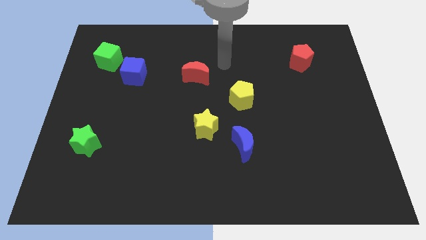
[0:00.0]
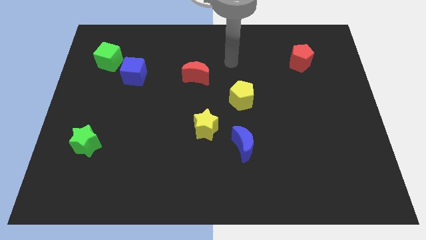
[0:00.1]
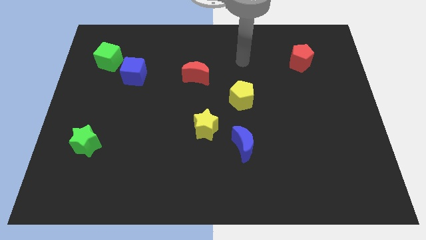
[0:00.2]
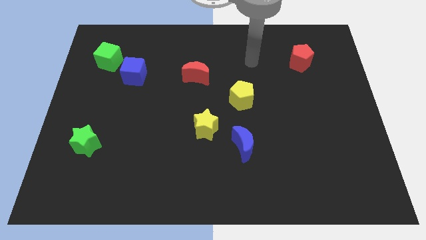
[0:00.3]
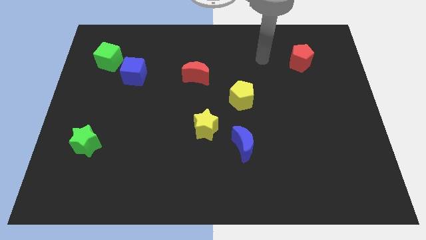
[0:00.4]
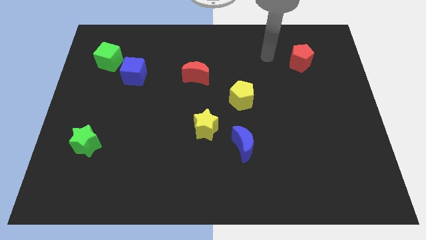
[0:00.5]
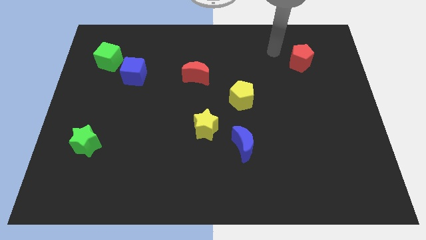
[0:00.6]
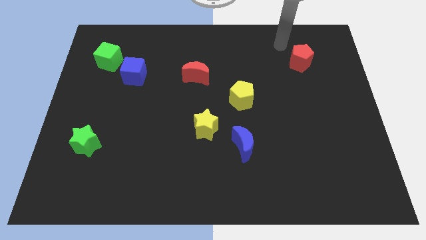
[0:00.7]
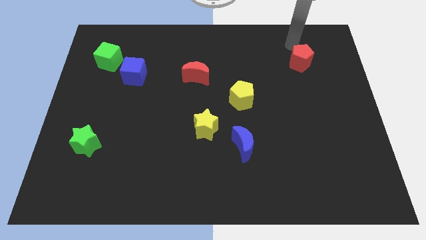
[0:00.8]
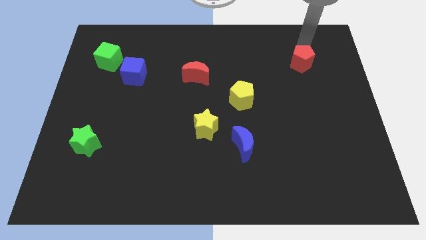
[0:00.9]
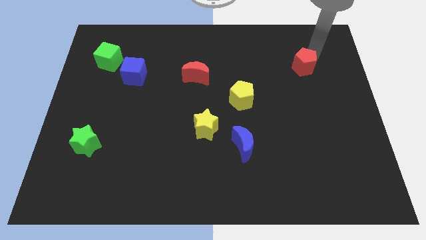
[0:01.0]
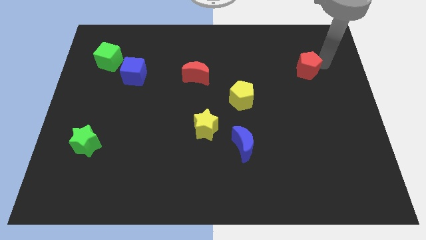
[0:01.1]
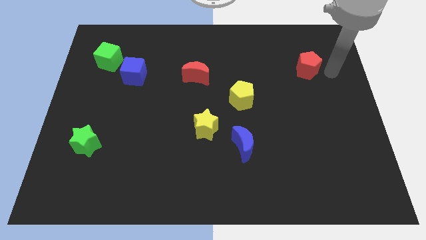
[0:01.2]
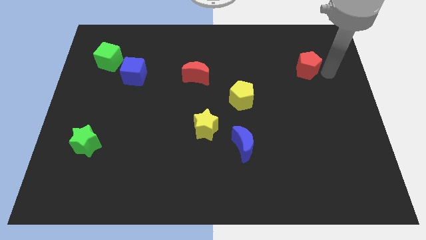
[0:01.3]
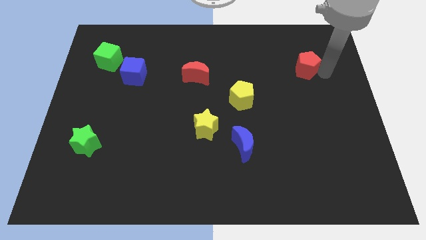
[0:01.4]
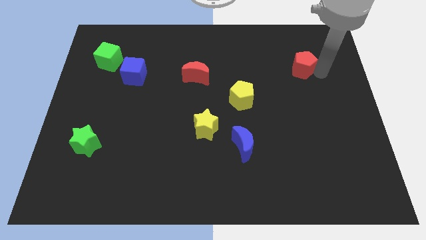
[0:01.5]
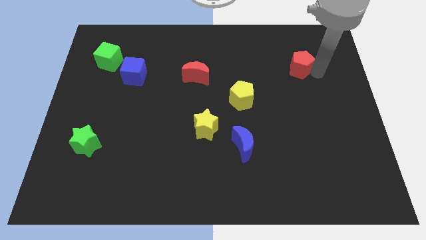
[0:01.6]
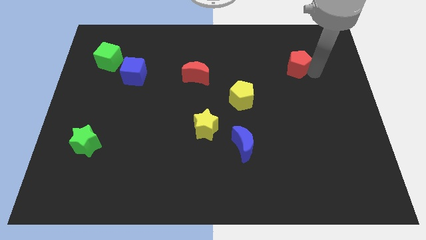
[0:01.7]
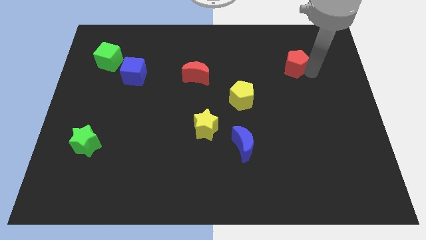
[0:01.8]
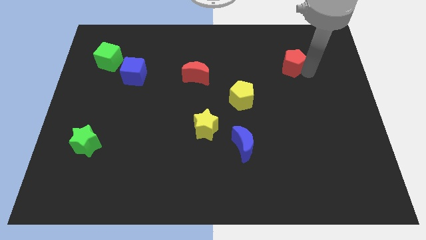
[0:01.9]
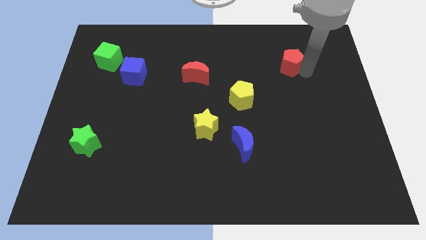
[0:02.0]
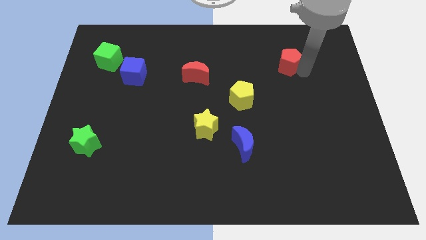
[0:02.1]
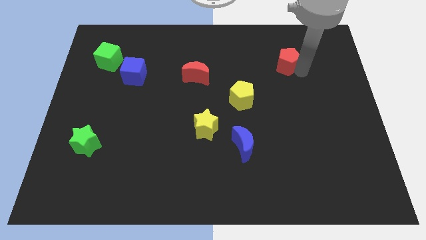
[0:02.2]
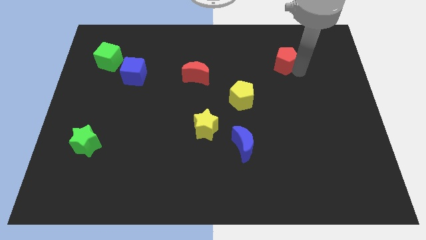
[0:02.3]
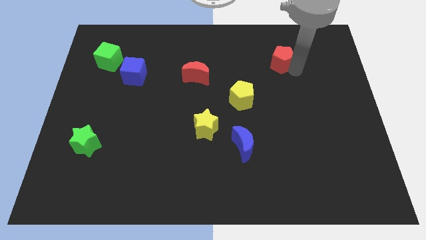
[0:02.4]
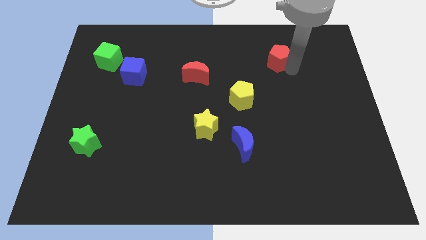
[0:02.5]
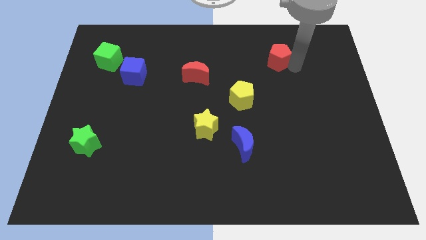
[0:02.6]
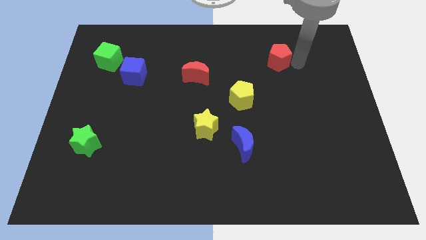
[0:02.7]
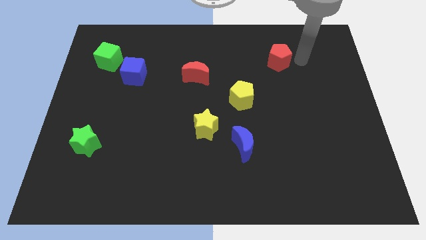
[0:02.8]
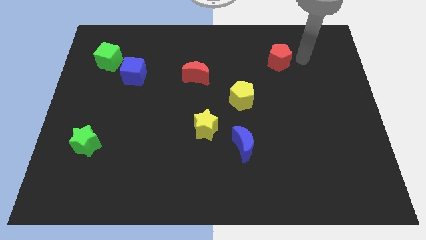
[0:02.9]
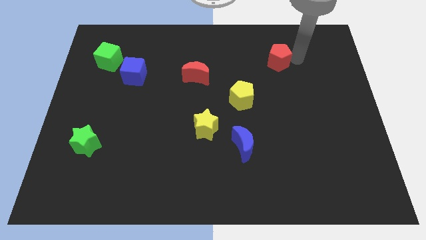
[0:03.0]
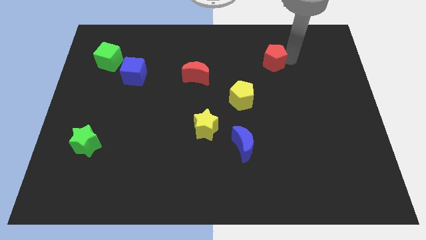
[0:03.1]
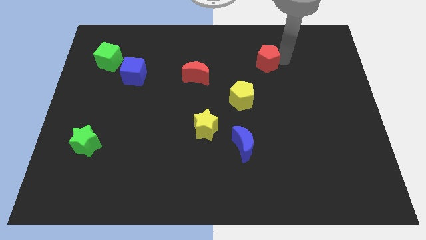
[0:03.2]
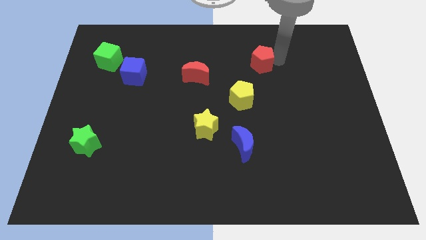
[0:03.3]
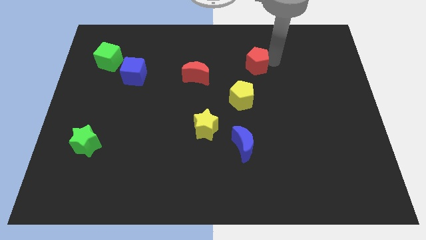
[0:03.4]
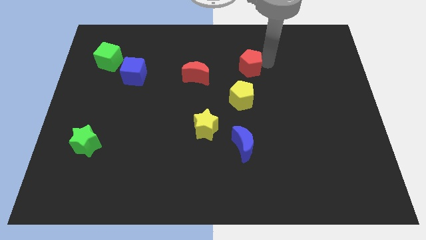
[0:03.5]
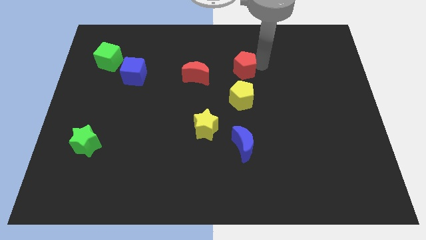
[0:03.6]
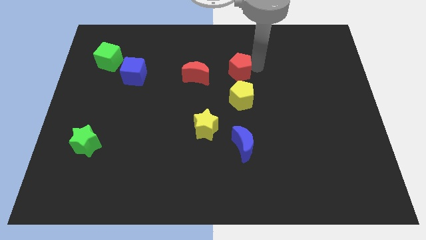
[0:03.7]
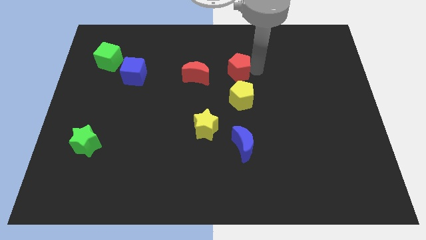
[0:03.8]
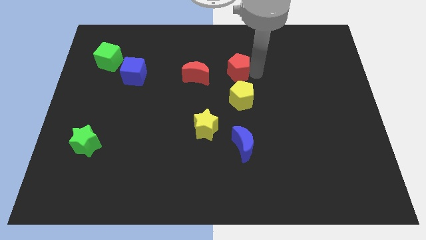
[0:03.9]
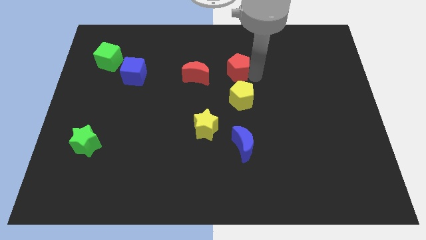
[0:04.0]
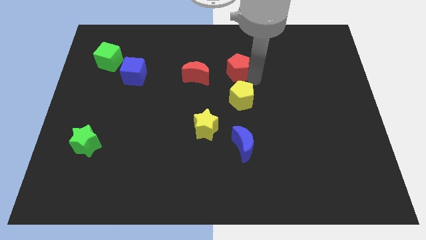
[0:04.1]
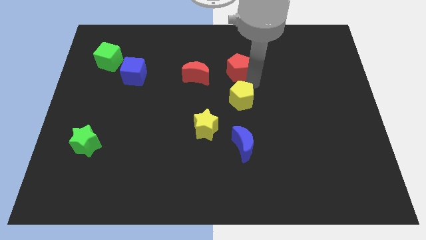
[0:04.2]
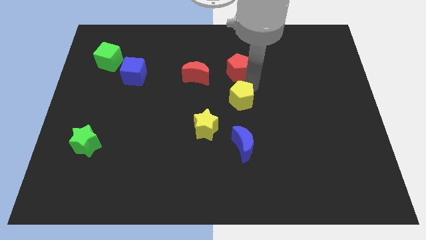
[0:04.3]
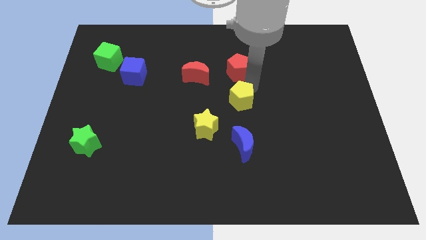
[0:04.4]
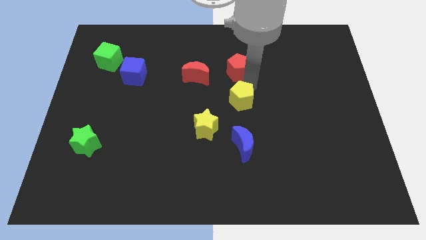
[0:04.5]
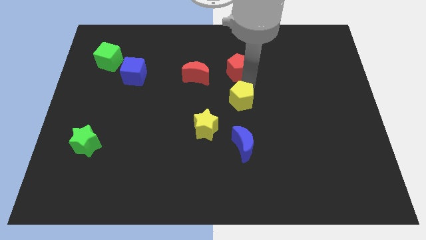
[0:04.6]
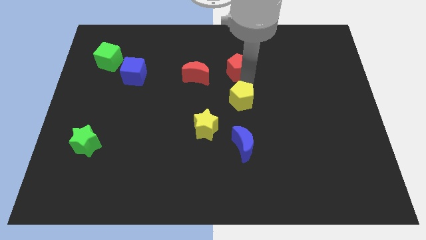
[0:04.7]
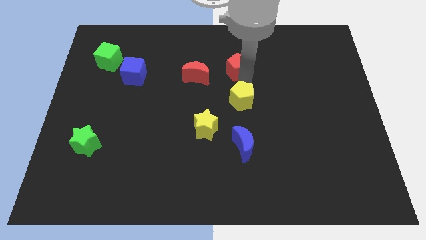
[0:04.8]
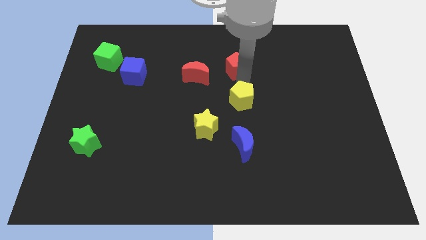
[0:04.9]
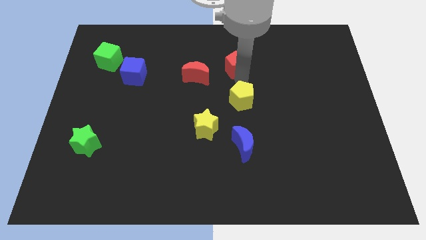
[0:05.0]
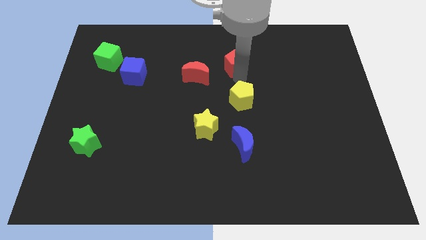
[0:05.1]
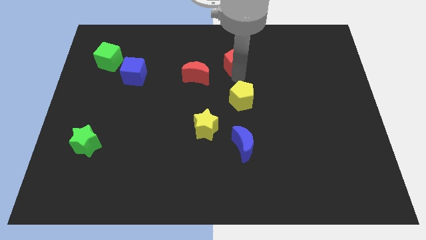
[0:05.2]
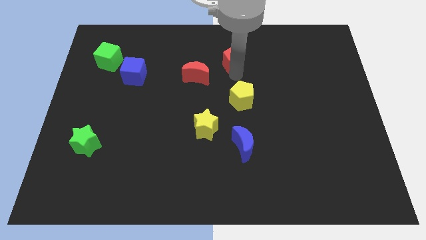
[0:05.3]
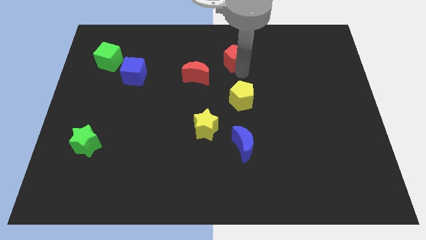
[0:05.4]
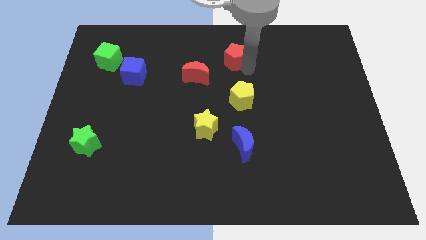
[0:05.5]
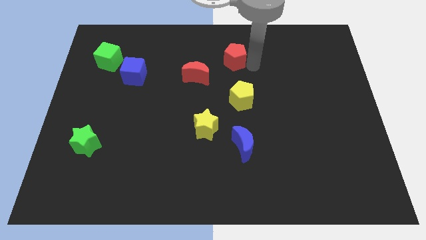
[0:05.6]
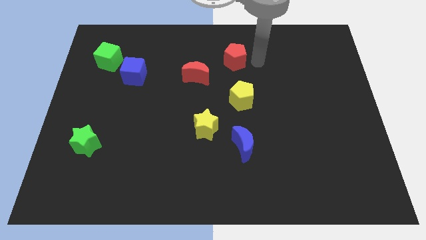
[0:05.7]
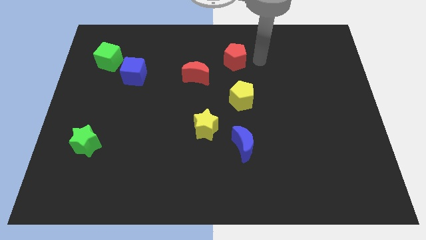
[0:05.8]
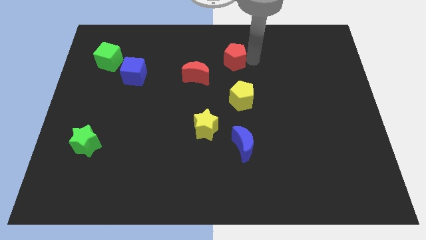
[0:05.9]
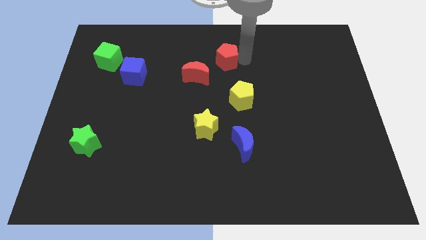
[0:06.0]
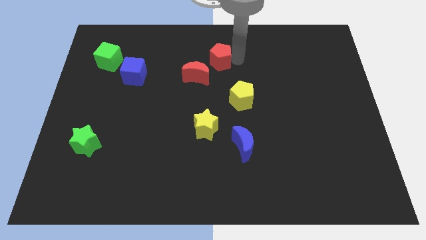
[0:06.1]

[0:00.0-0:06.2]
slide the red pentagon to the left

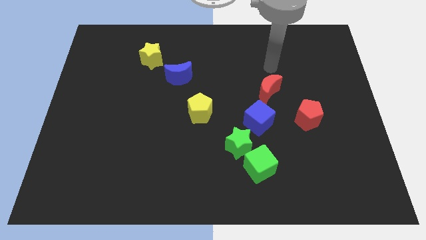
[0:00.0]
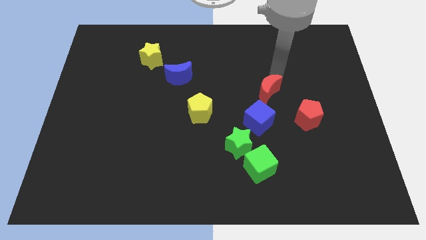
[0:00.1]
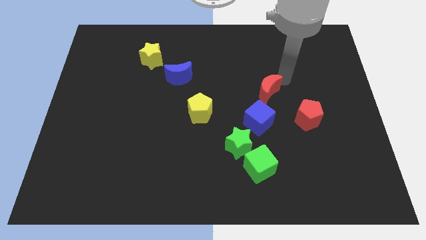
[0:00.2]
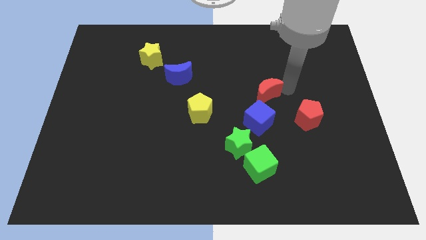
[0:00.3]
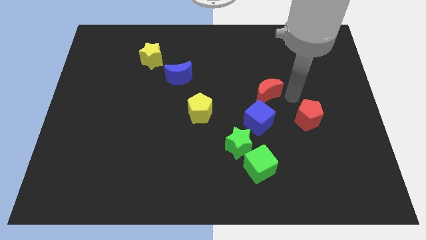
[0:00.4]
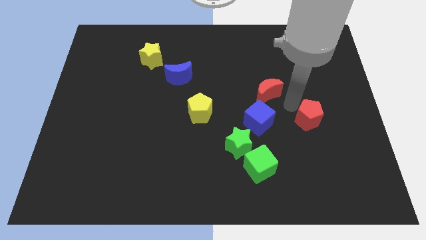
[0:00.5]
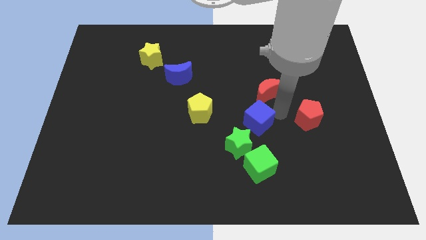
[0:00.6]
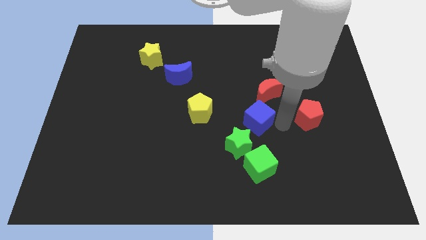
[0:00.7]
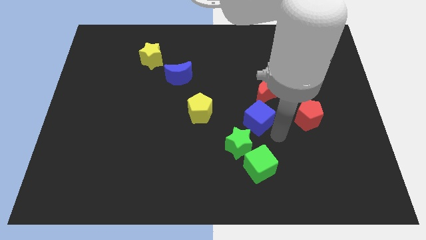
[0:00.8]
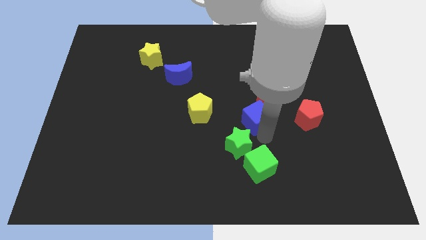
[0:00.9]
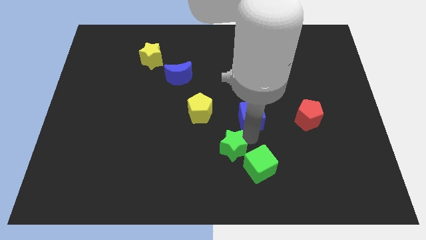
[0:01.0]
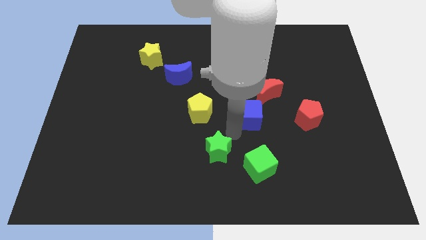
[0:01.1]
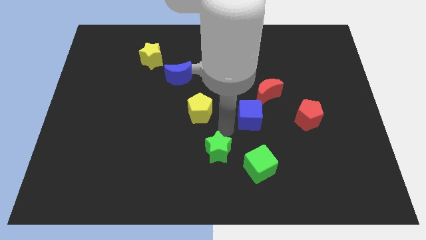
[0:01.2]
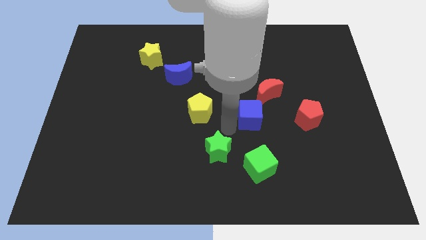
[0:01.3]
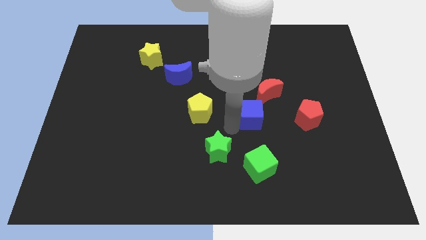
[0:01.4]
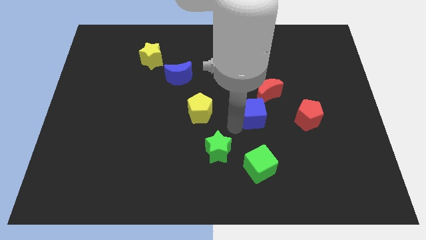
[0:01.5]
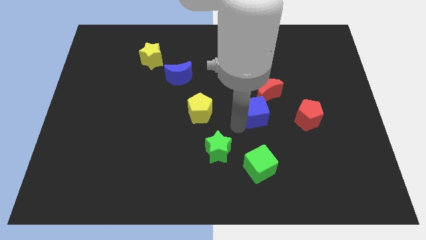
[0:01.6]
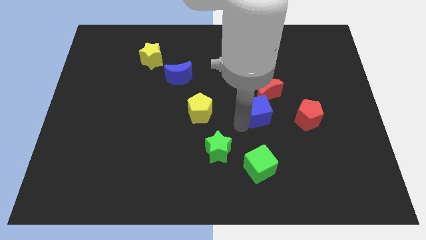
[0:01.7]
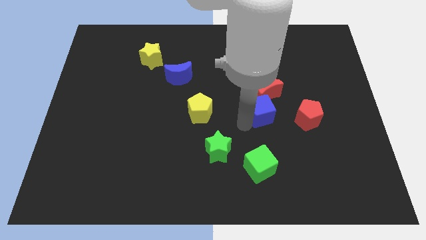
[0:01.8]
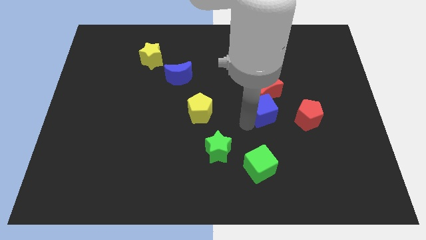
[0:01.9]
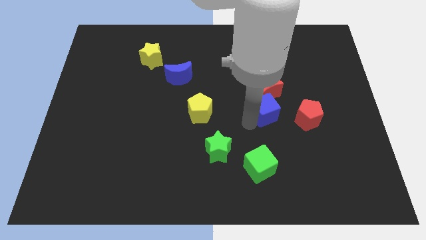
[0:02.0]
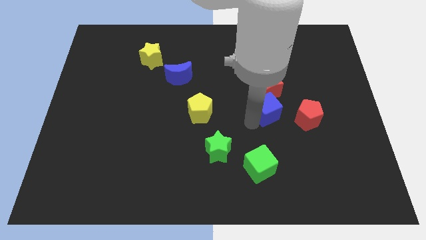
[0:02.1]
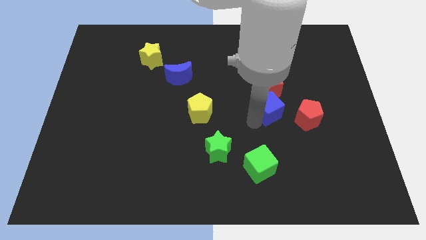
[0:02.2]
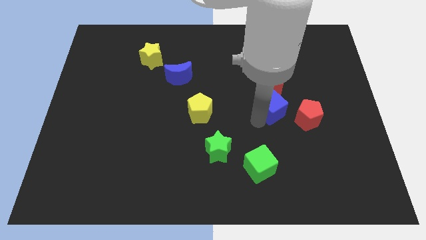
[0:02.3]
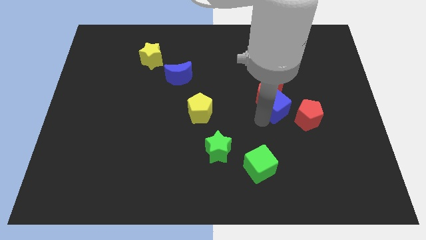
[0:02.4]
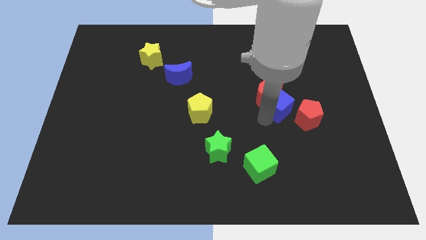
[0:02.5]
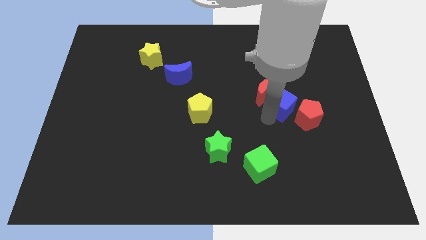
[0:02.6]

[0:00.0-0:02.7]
slightly slide the blue cube up and then right
